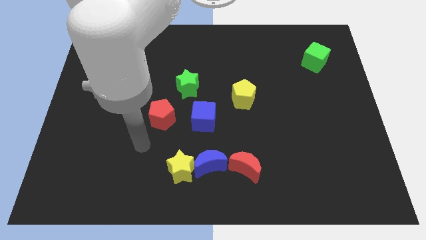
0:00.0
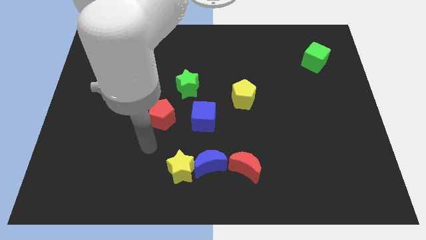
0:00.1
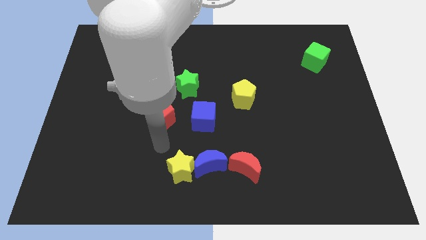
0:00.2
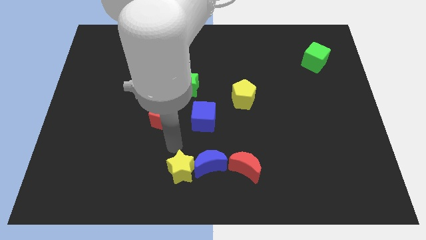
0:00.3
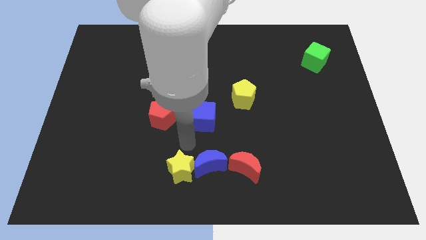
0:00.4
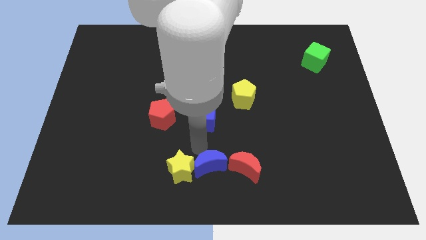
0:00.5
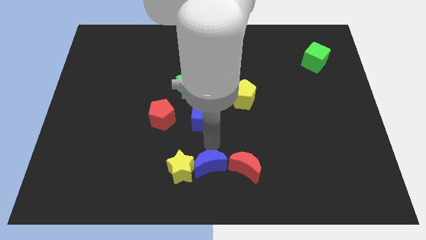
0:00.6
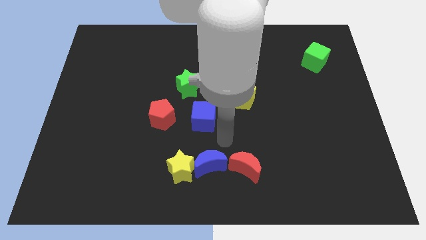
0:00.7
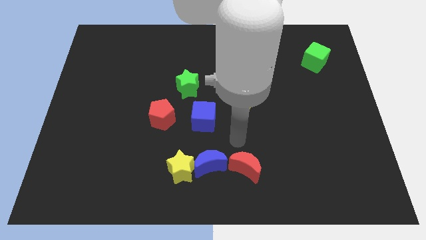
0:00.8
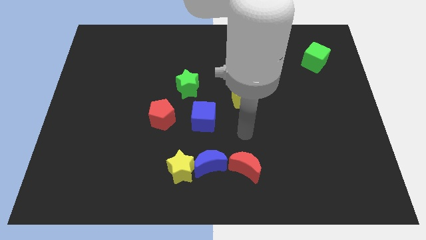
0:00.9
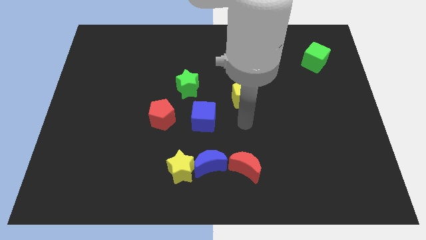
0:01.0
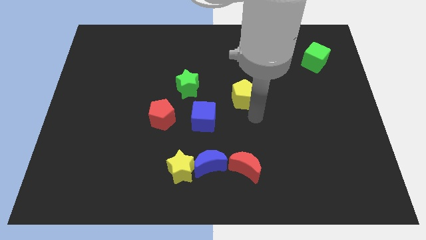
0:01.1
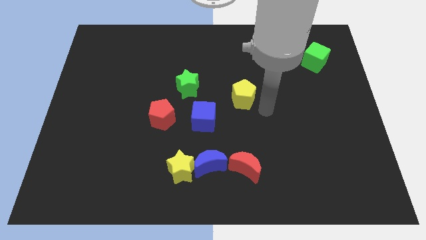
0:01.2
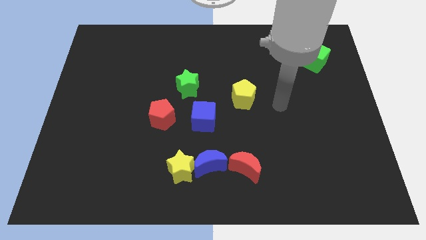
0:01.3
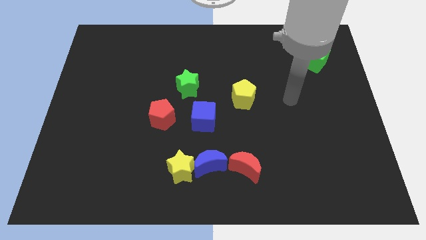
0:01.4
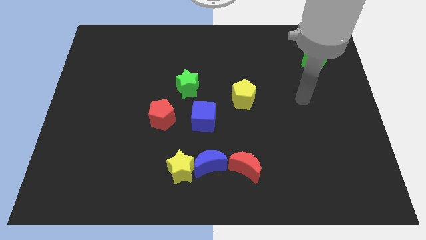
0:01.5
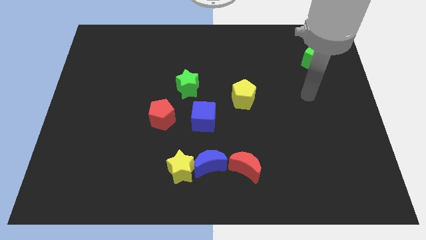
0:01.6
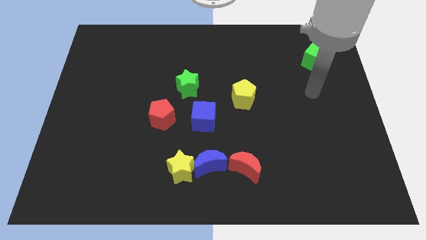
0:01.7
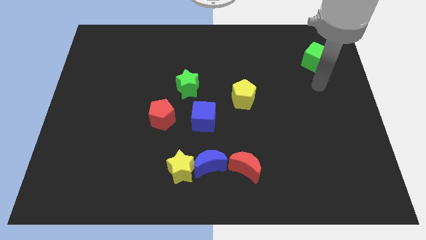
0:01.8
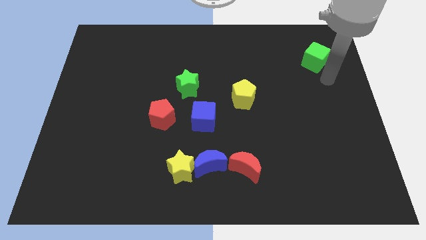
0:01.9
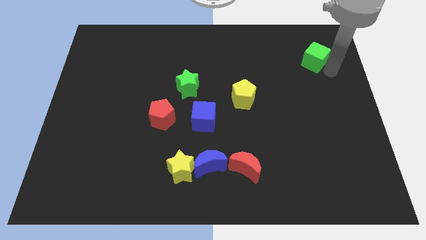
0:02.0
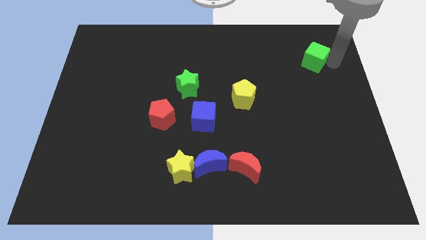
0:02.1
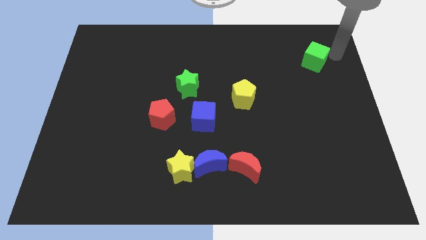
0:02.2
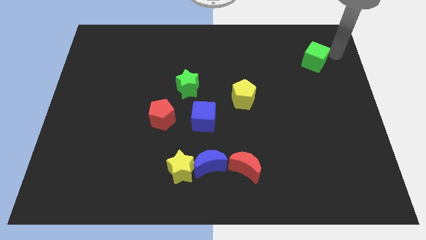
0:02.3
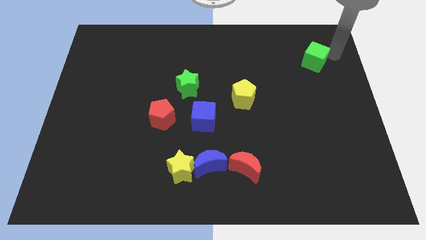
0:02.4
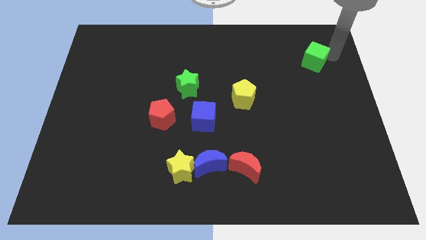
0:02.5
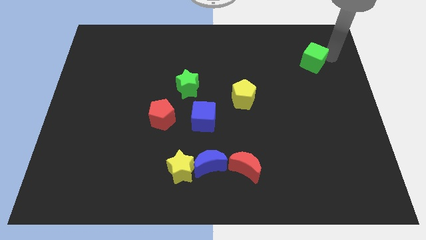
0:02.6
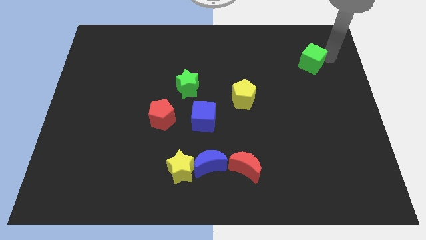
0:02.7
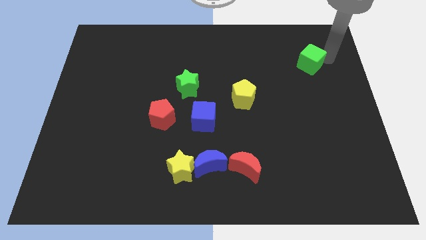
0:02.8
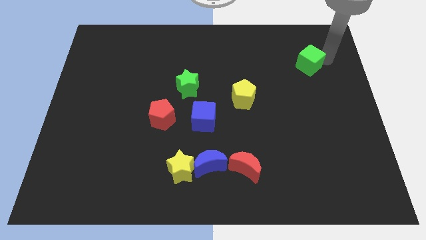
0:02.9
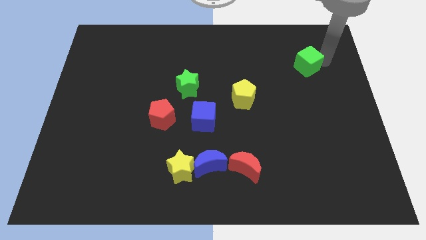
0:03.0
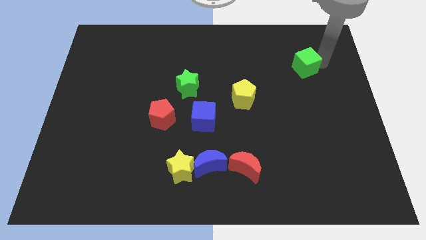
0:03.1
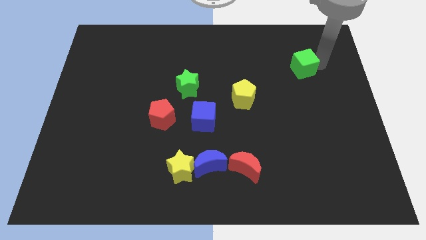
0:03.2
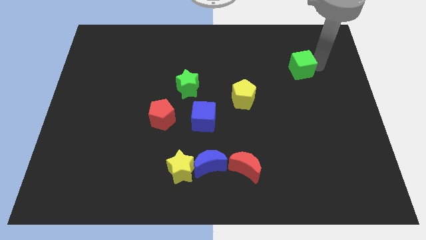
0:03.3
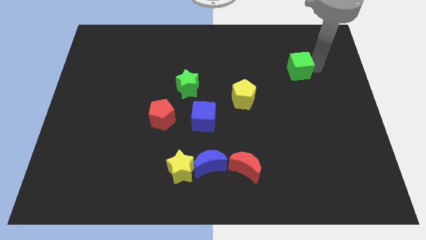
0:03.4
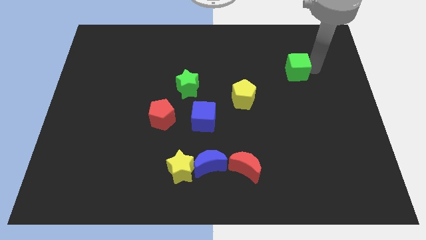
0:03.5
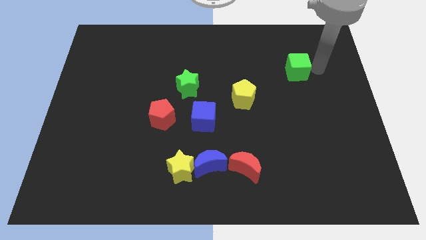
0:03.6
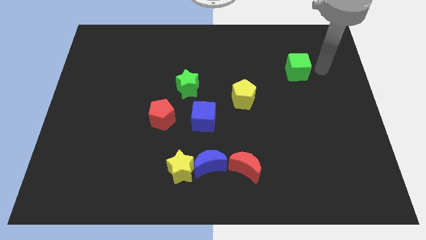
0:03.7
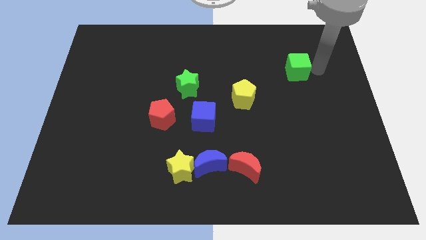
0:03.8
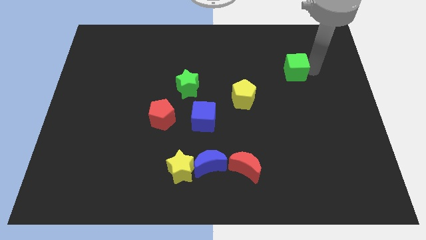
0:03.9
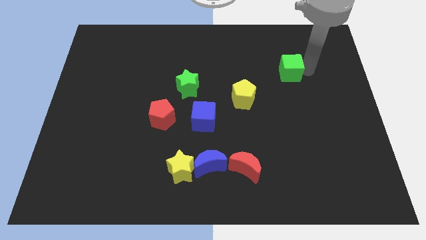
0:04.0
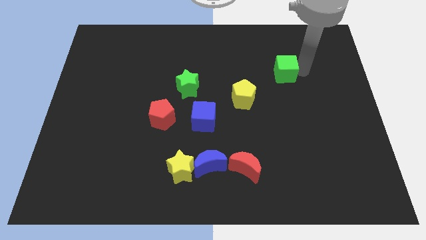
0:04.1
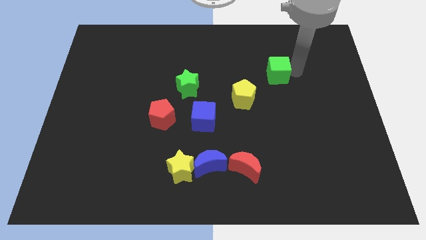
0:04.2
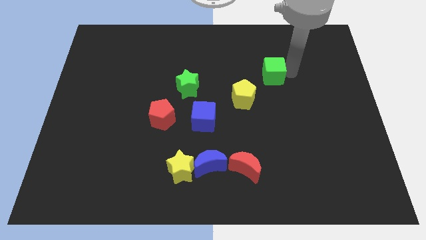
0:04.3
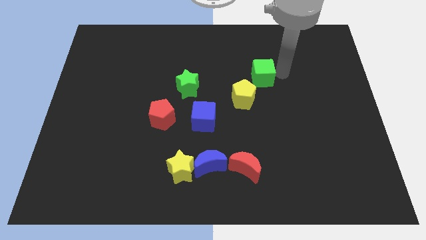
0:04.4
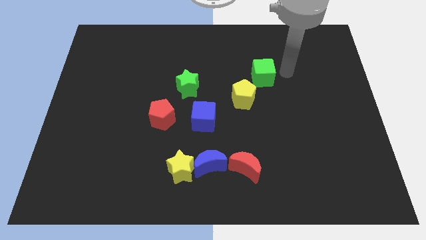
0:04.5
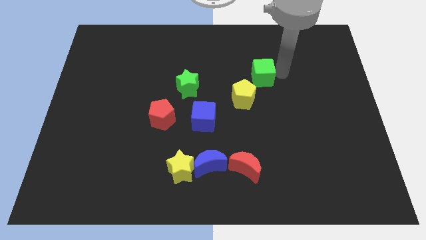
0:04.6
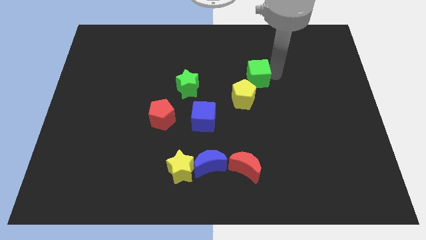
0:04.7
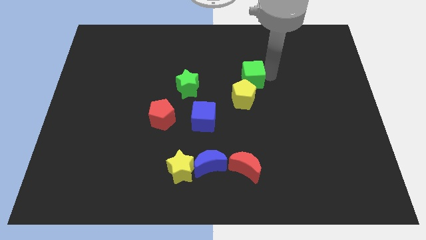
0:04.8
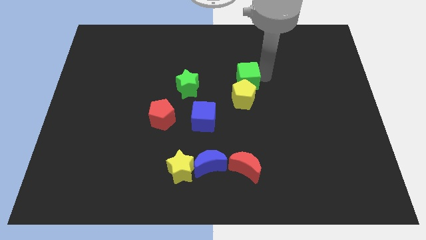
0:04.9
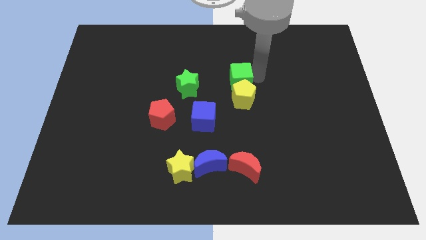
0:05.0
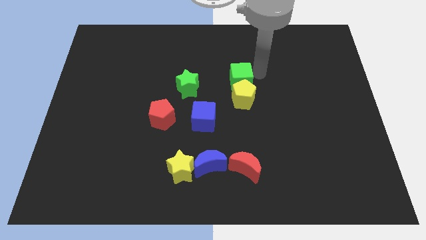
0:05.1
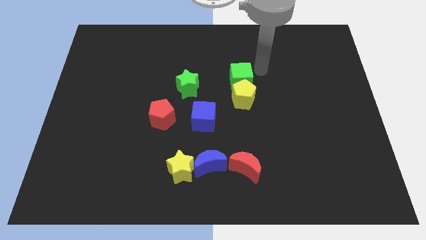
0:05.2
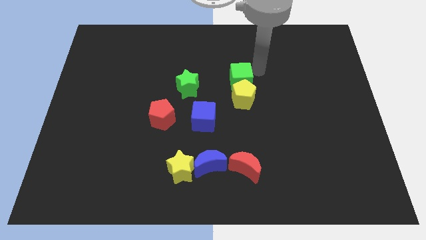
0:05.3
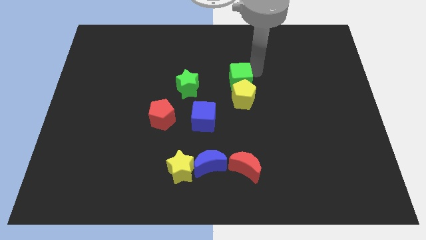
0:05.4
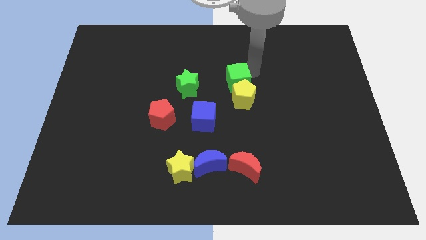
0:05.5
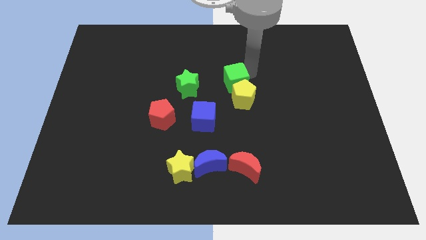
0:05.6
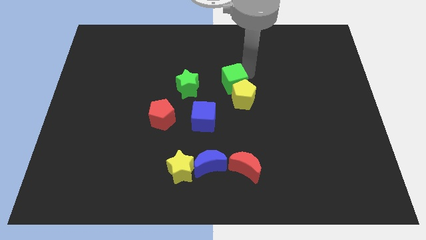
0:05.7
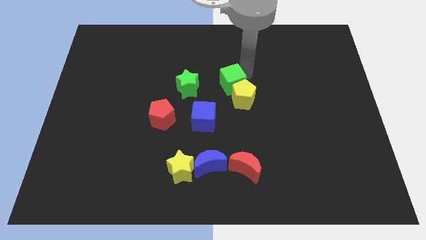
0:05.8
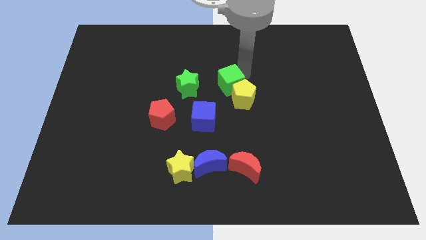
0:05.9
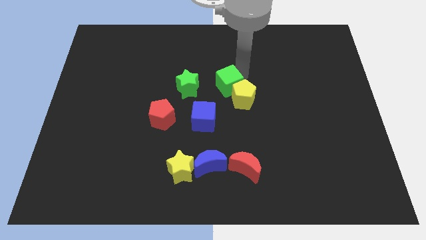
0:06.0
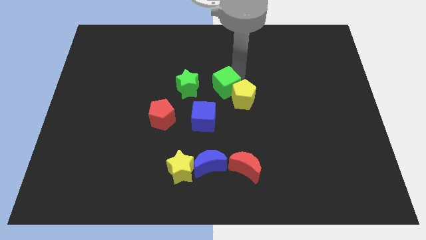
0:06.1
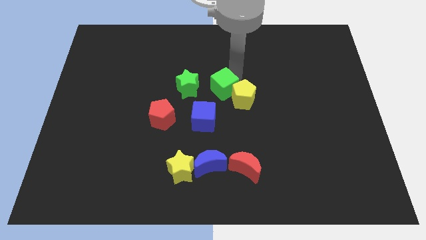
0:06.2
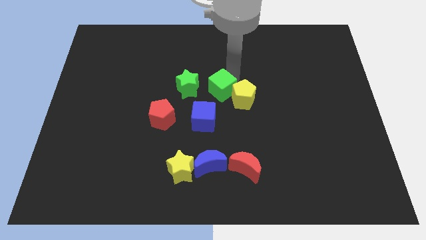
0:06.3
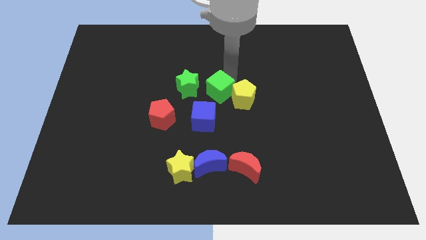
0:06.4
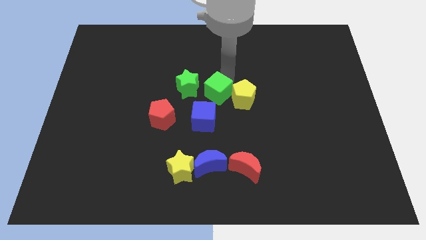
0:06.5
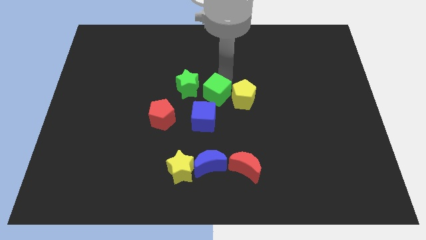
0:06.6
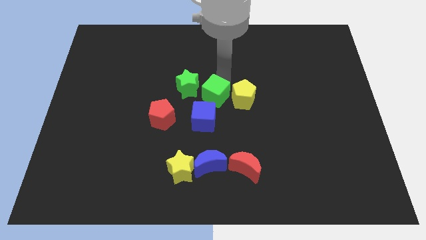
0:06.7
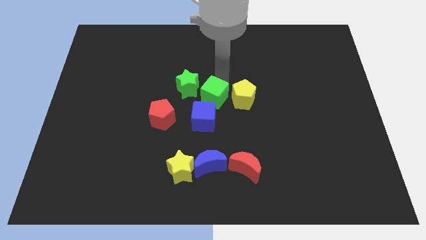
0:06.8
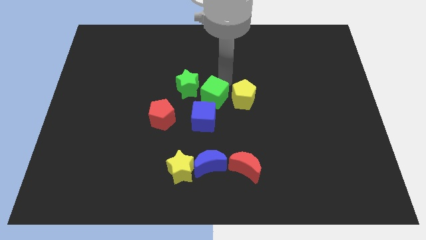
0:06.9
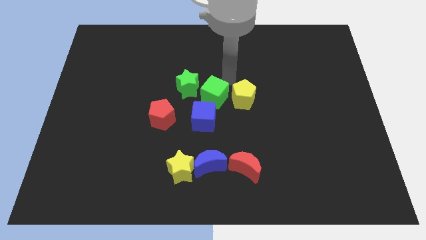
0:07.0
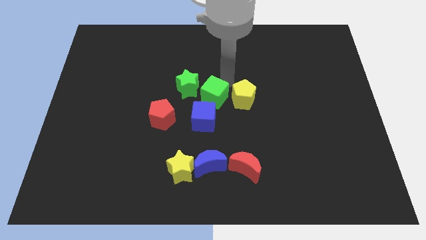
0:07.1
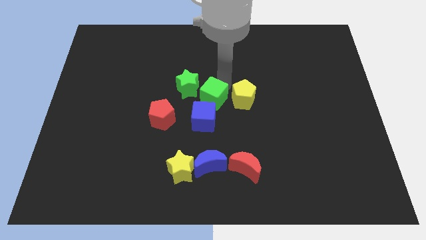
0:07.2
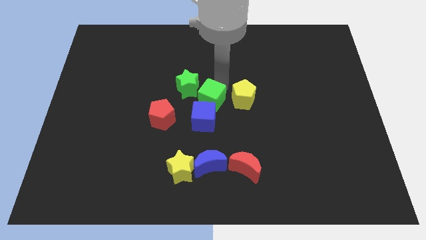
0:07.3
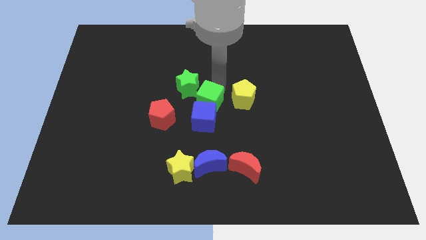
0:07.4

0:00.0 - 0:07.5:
push the green cube next to the blue cube
